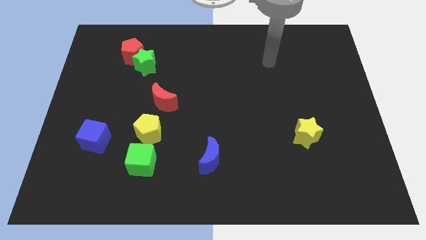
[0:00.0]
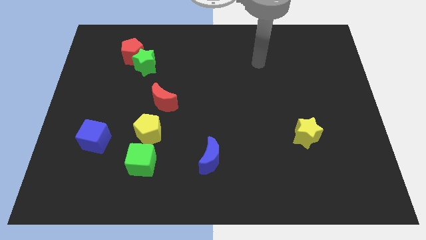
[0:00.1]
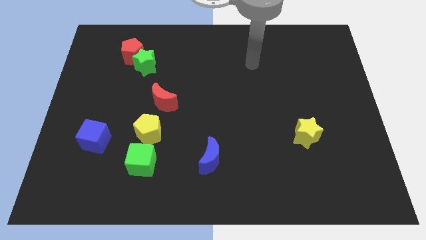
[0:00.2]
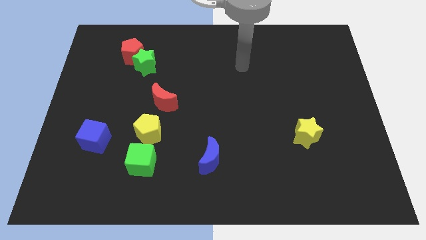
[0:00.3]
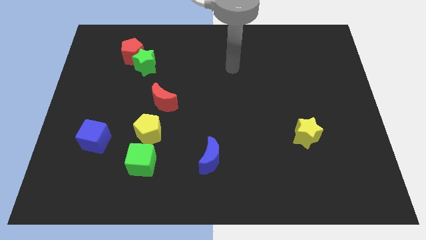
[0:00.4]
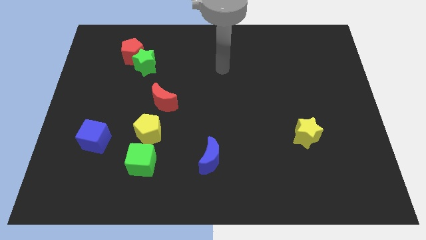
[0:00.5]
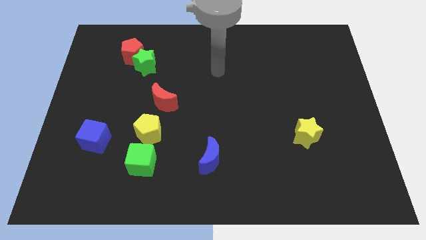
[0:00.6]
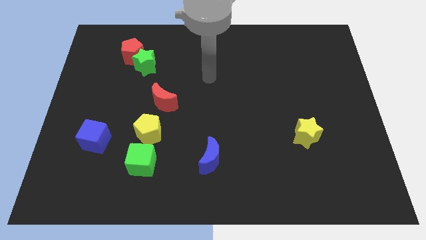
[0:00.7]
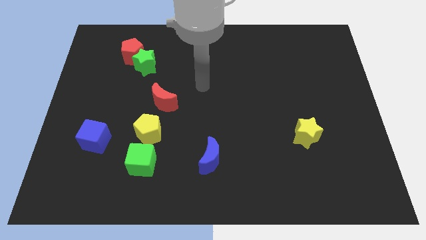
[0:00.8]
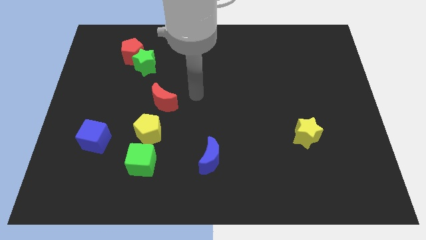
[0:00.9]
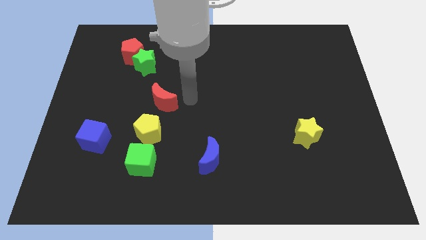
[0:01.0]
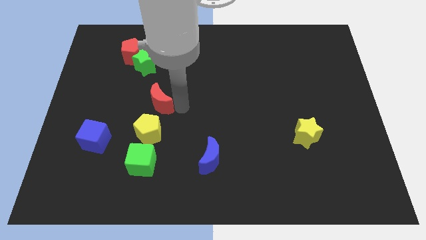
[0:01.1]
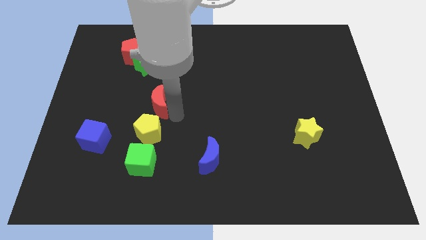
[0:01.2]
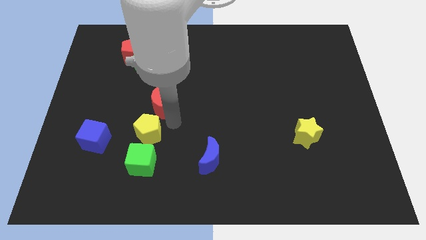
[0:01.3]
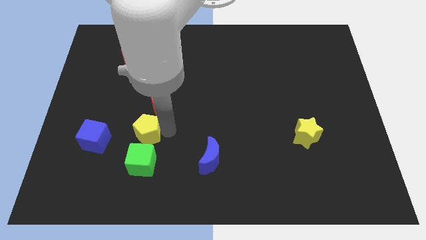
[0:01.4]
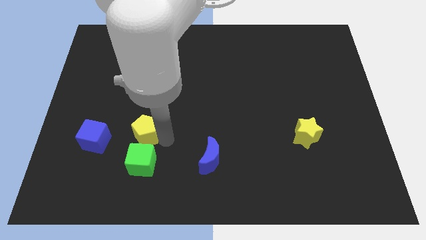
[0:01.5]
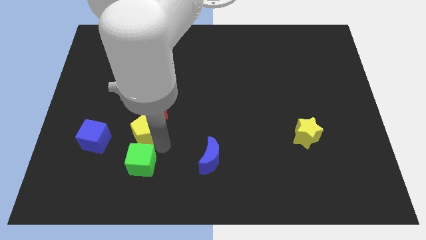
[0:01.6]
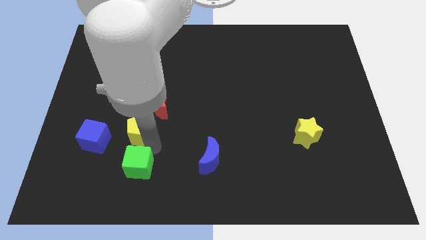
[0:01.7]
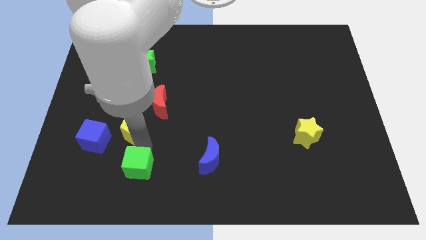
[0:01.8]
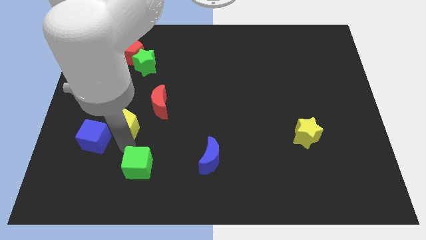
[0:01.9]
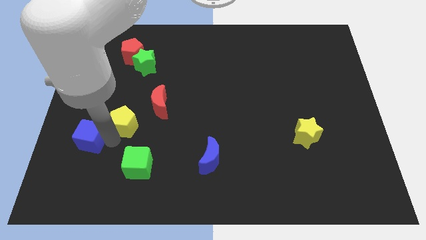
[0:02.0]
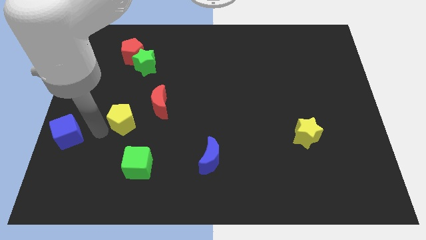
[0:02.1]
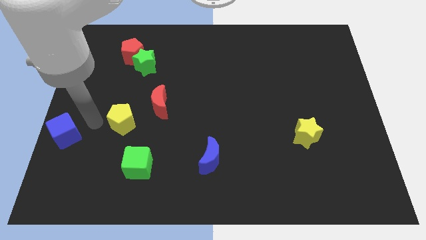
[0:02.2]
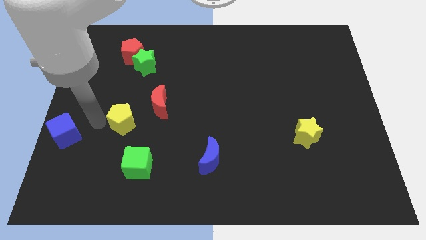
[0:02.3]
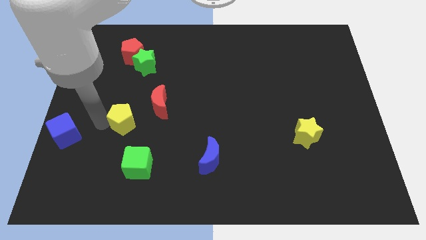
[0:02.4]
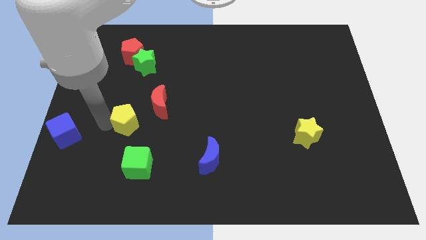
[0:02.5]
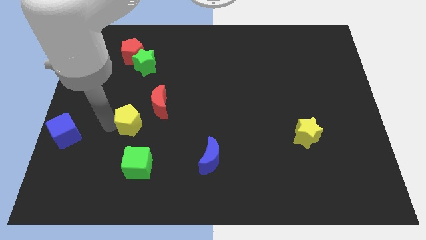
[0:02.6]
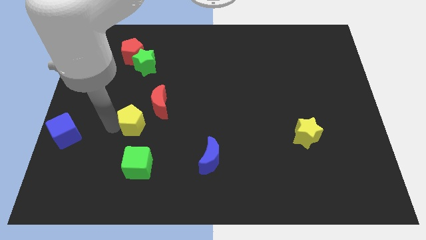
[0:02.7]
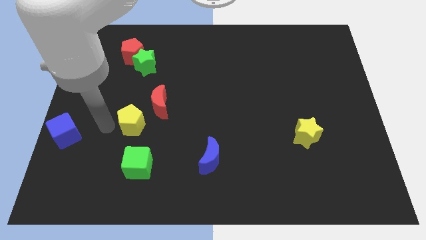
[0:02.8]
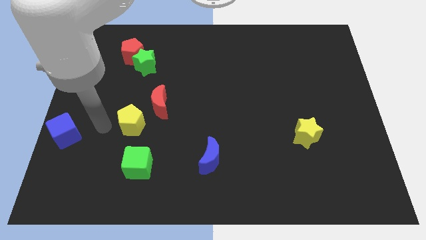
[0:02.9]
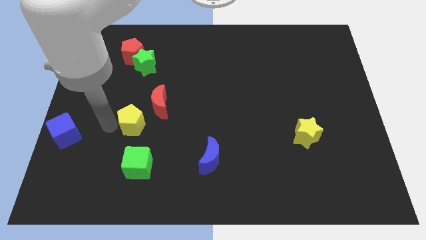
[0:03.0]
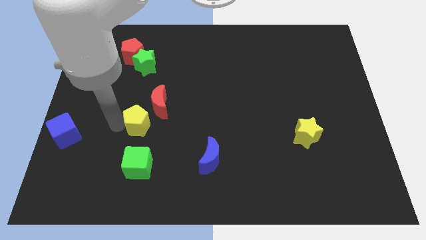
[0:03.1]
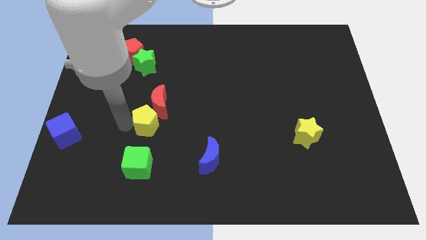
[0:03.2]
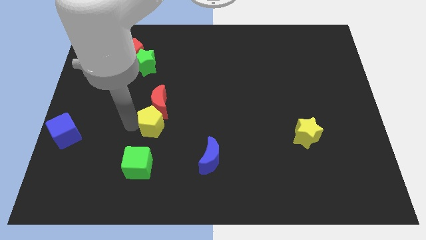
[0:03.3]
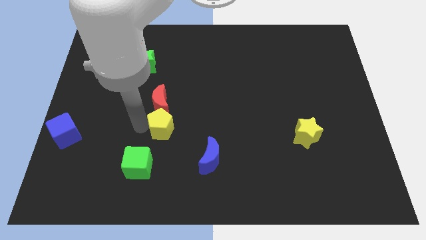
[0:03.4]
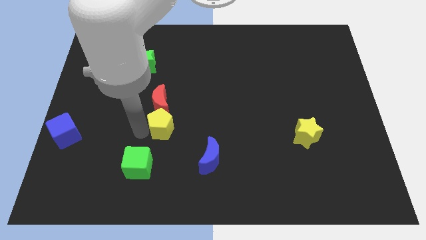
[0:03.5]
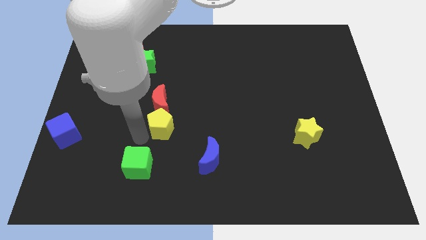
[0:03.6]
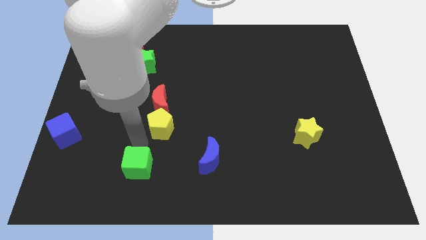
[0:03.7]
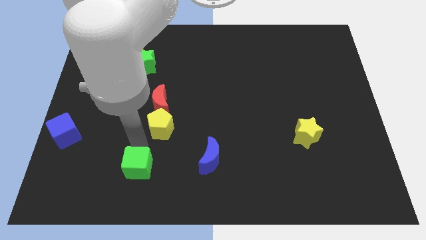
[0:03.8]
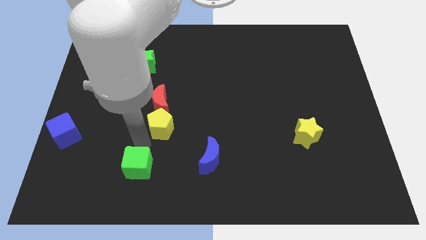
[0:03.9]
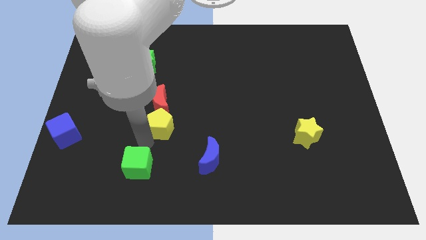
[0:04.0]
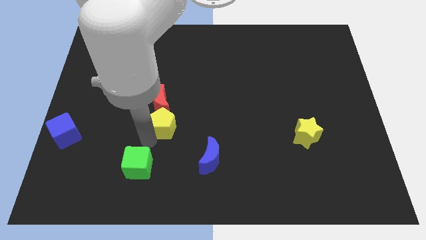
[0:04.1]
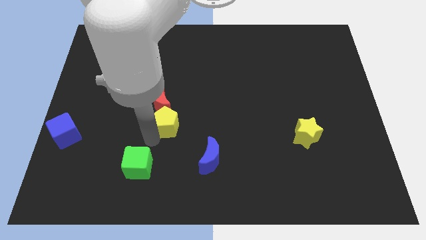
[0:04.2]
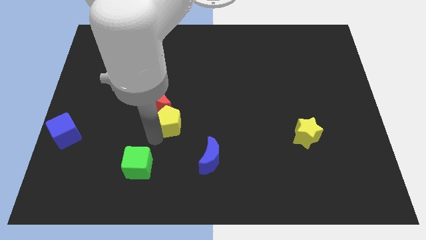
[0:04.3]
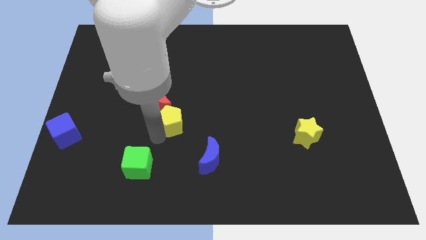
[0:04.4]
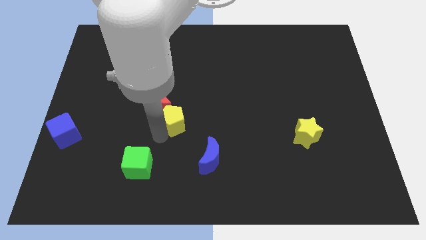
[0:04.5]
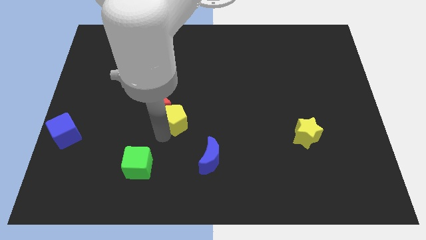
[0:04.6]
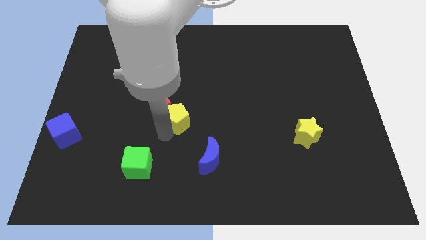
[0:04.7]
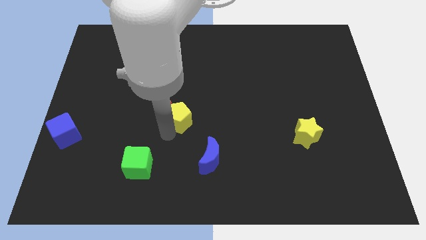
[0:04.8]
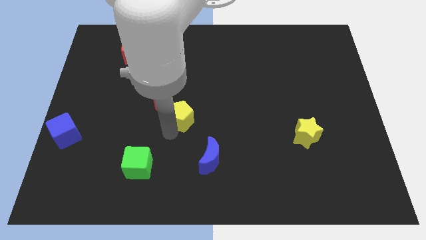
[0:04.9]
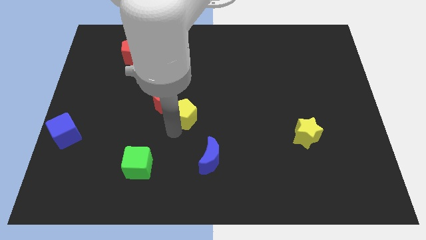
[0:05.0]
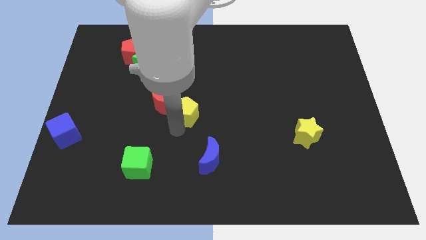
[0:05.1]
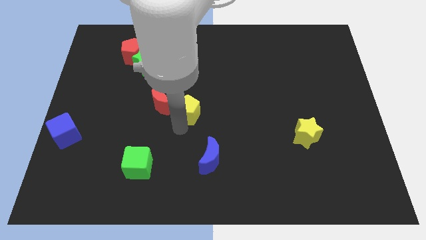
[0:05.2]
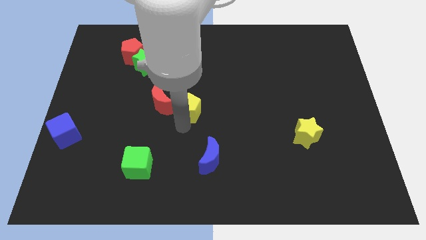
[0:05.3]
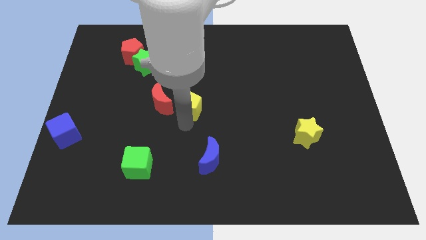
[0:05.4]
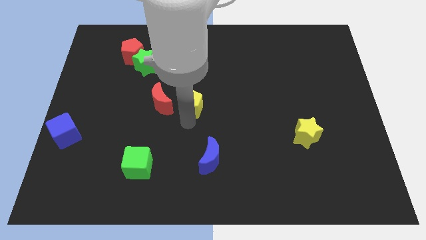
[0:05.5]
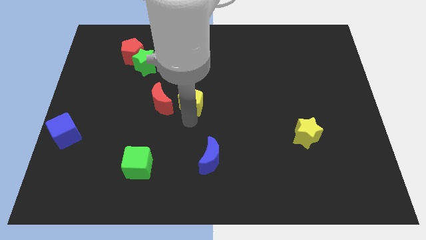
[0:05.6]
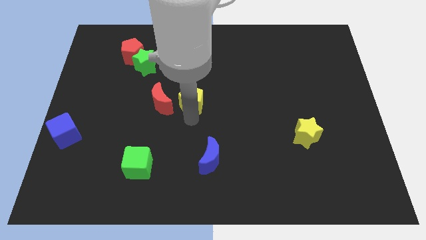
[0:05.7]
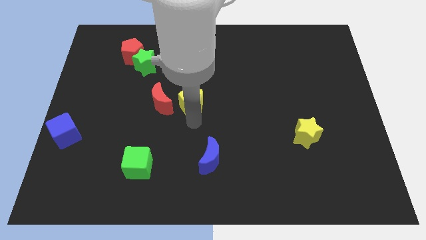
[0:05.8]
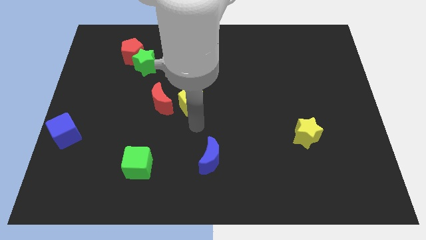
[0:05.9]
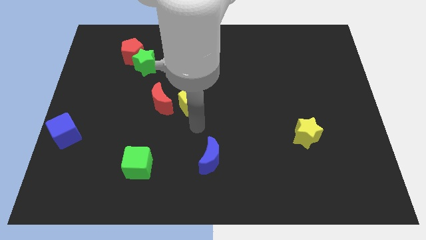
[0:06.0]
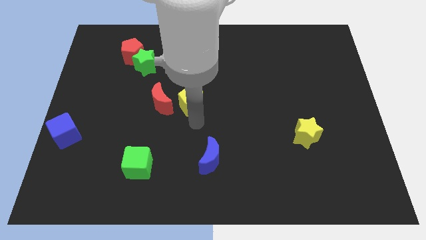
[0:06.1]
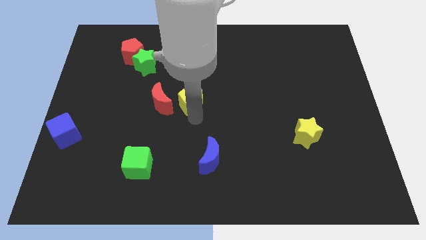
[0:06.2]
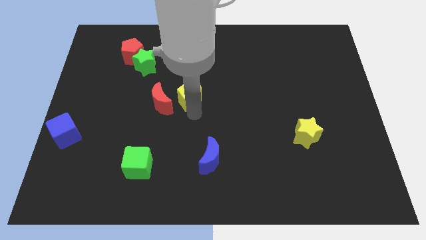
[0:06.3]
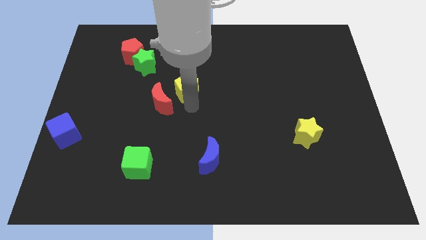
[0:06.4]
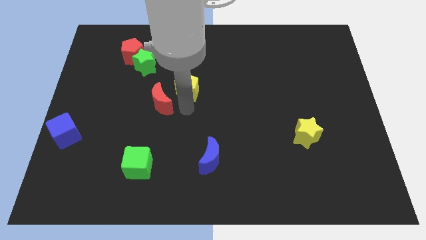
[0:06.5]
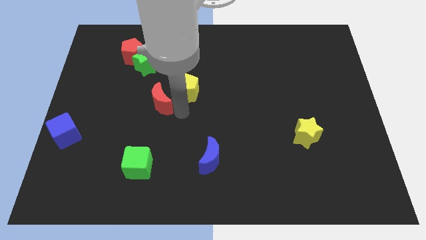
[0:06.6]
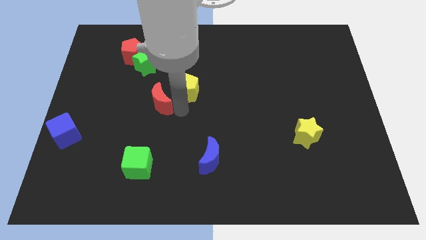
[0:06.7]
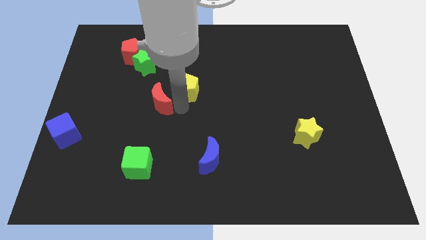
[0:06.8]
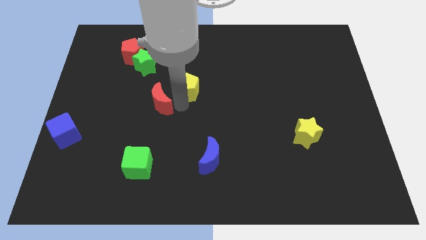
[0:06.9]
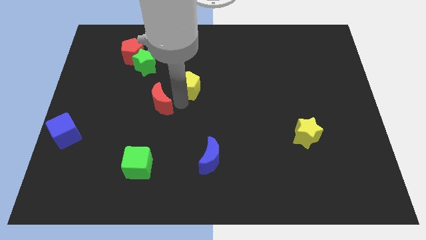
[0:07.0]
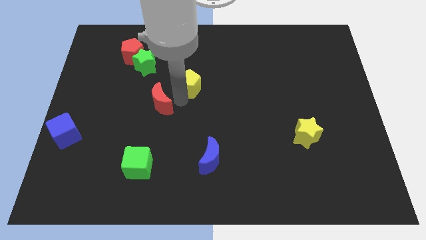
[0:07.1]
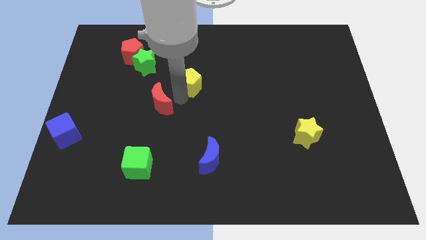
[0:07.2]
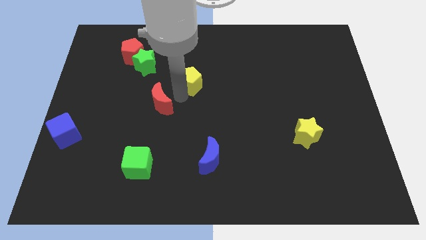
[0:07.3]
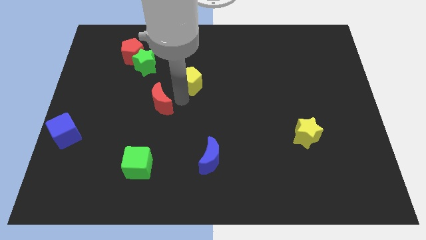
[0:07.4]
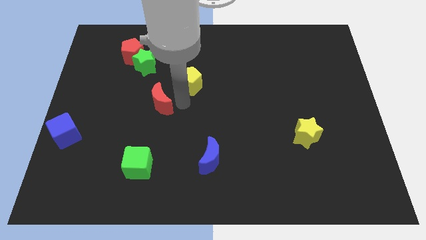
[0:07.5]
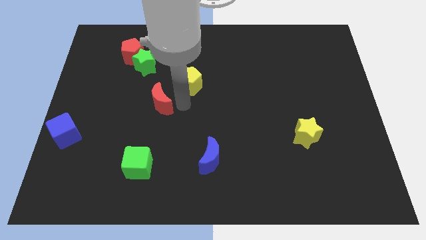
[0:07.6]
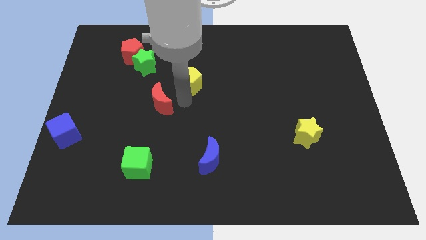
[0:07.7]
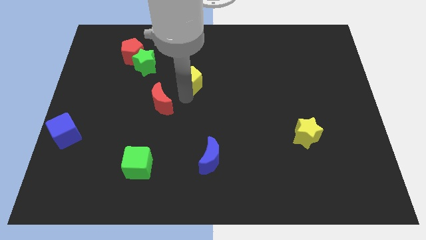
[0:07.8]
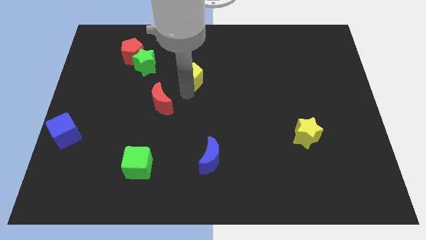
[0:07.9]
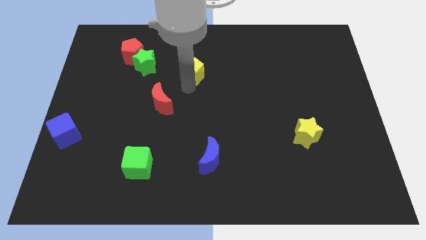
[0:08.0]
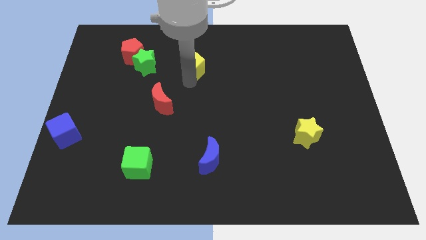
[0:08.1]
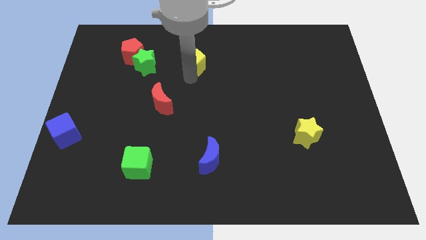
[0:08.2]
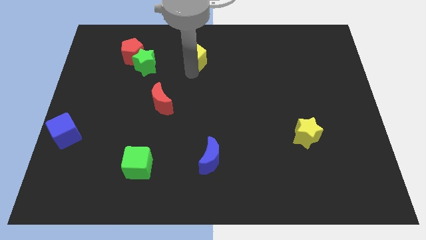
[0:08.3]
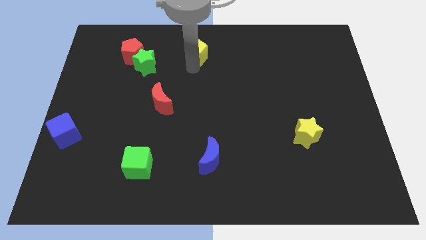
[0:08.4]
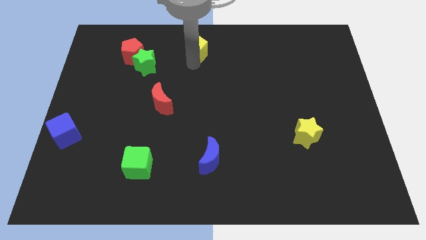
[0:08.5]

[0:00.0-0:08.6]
move the yellow pentagon to the towards your base
